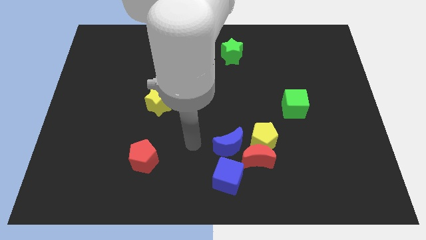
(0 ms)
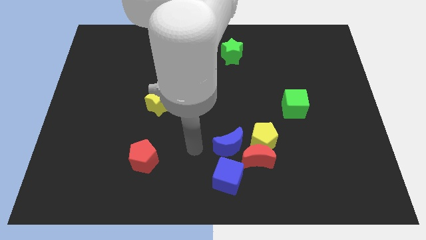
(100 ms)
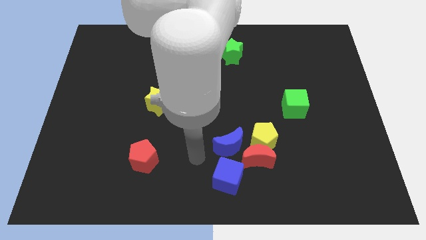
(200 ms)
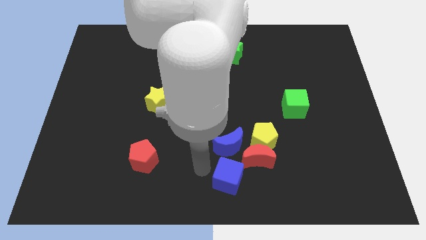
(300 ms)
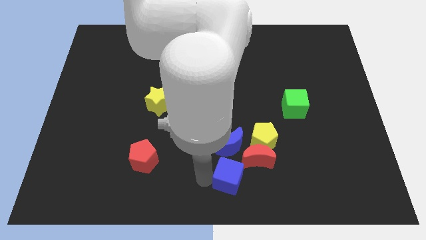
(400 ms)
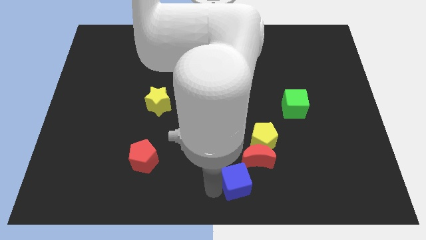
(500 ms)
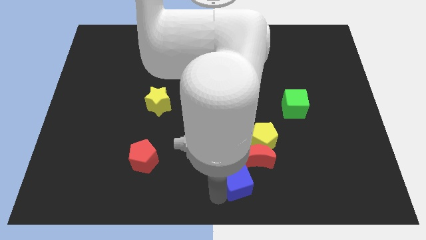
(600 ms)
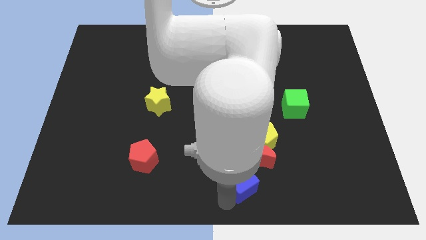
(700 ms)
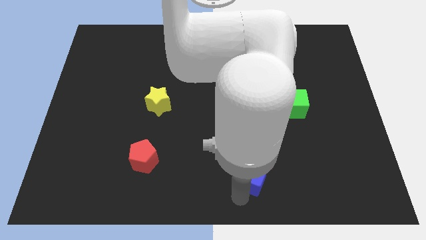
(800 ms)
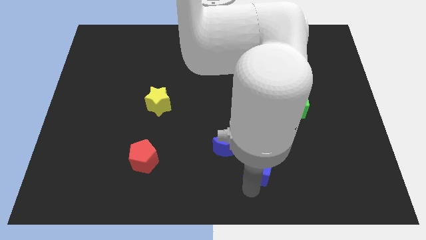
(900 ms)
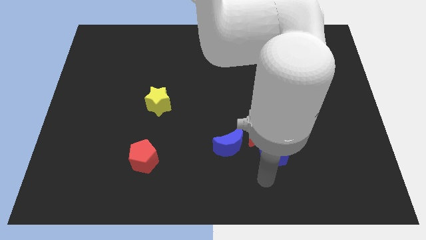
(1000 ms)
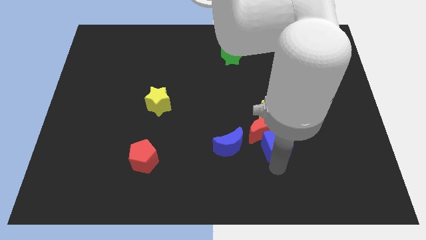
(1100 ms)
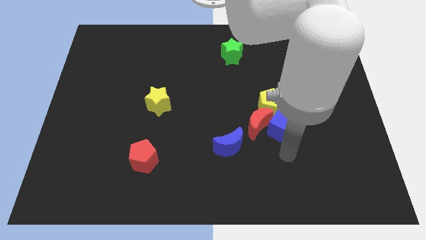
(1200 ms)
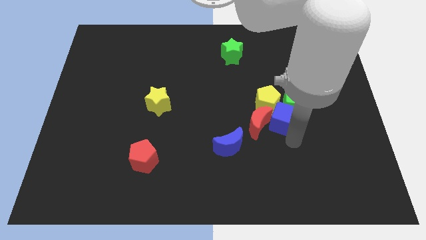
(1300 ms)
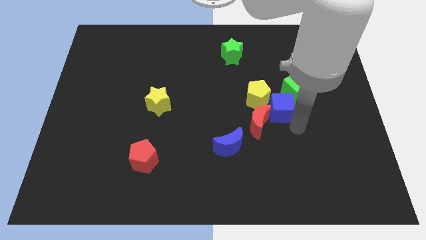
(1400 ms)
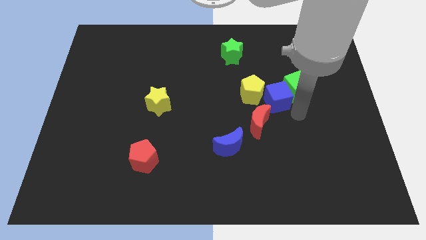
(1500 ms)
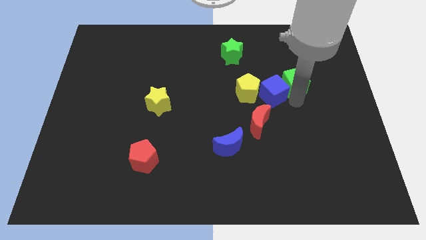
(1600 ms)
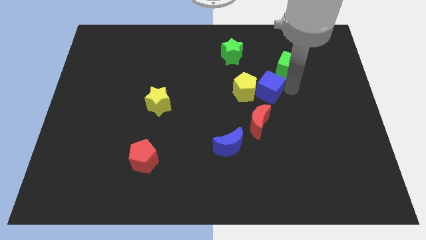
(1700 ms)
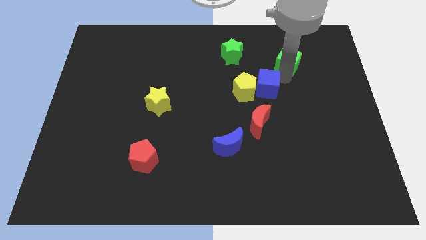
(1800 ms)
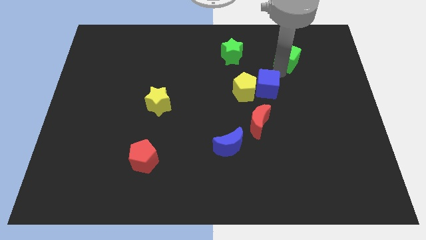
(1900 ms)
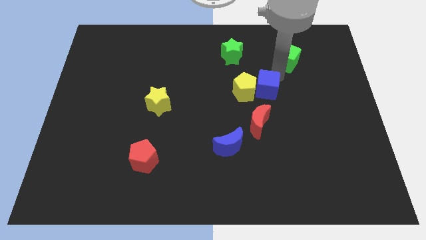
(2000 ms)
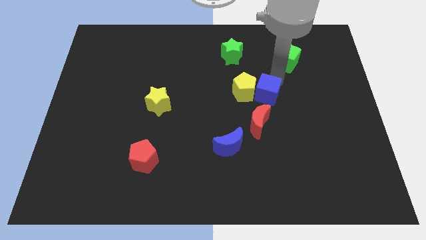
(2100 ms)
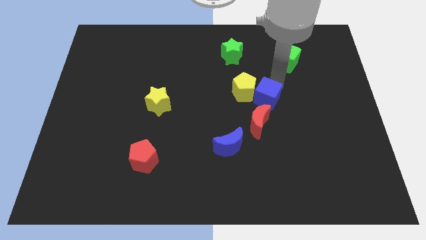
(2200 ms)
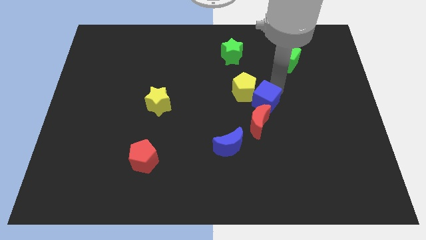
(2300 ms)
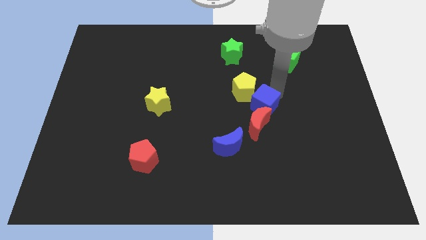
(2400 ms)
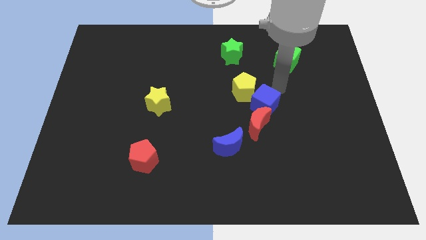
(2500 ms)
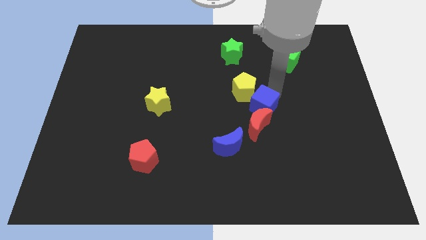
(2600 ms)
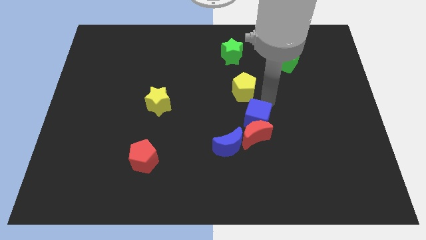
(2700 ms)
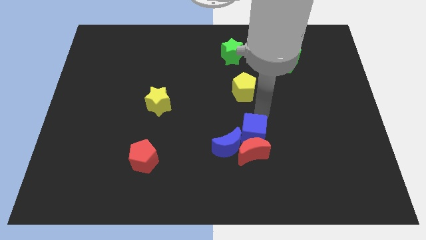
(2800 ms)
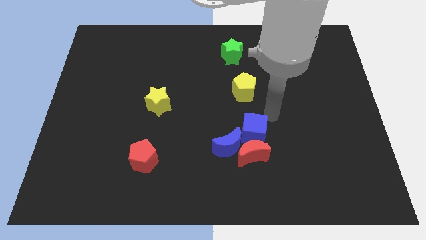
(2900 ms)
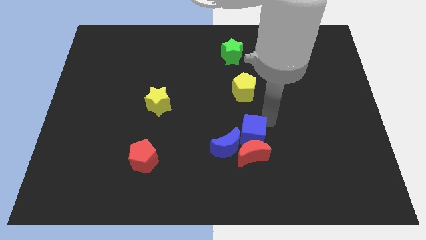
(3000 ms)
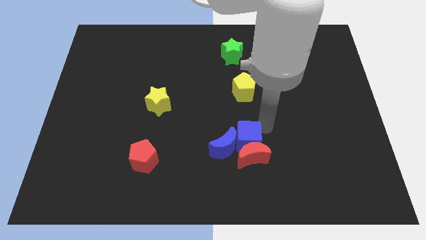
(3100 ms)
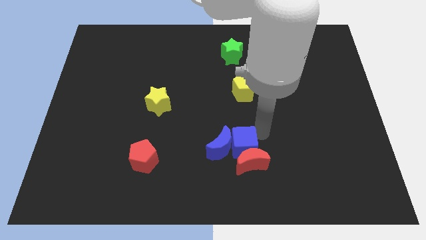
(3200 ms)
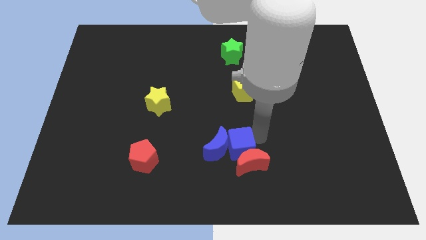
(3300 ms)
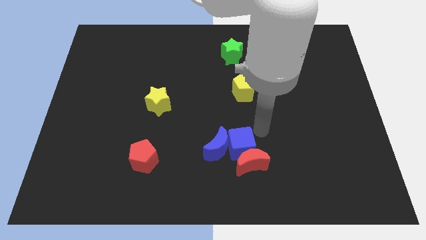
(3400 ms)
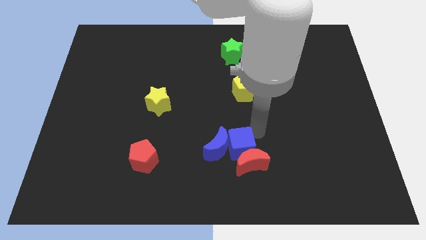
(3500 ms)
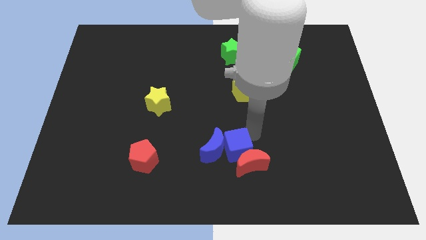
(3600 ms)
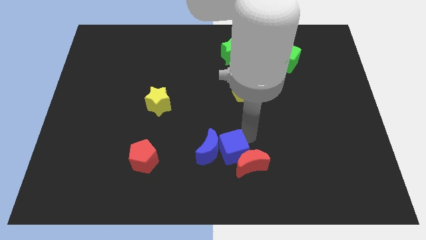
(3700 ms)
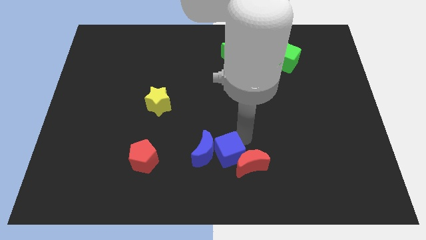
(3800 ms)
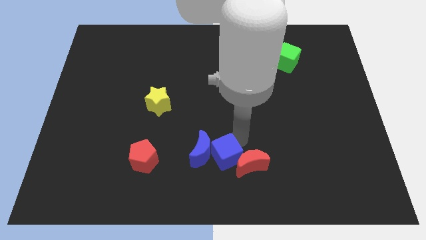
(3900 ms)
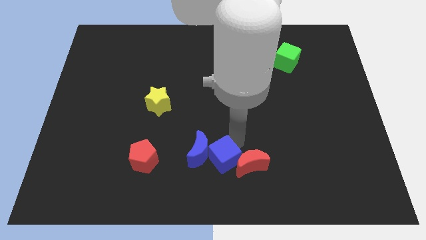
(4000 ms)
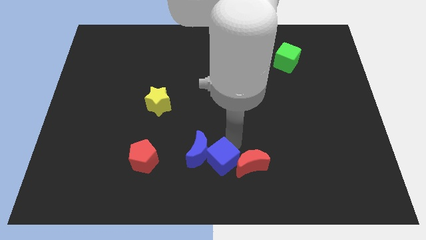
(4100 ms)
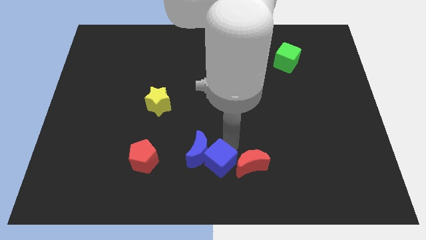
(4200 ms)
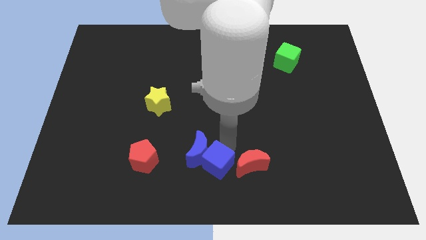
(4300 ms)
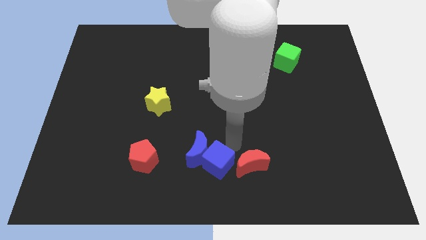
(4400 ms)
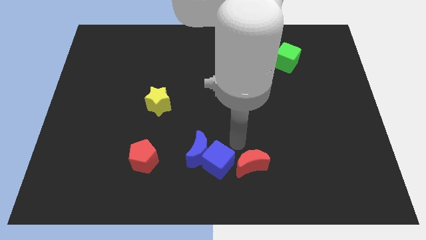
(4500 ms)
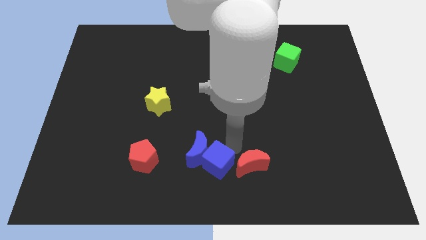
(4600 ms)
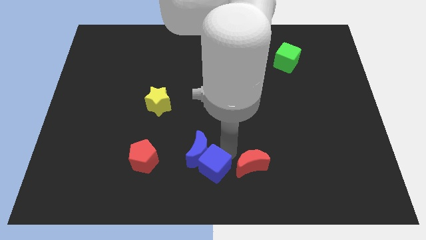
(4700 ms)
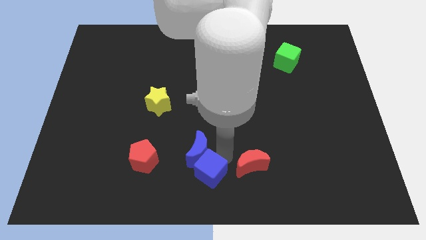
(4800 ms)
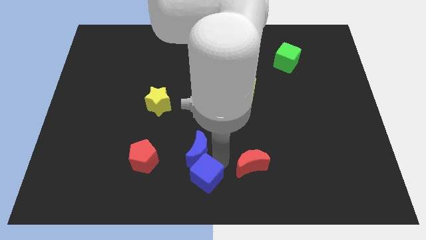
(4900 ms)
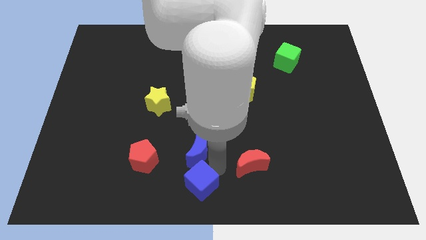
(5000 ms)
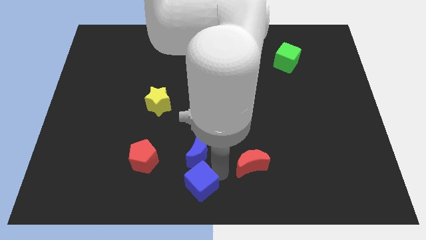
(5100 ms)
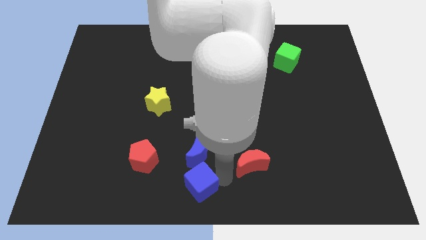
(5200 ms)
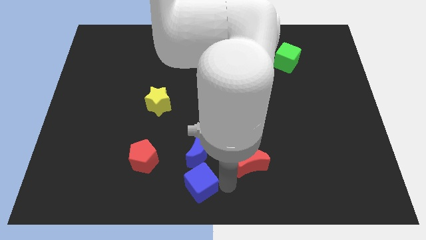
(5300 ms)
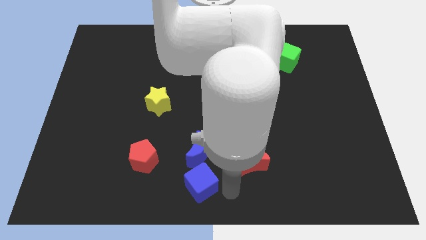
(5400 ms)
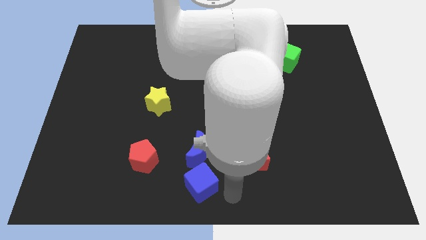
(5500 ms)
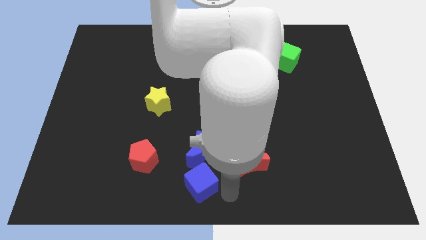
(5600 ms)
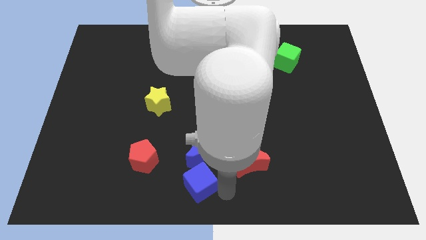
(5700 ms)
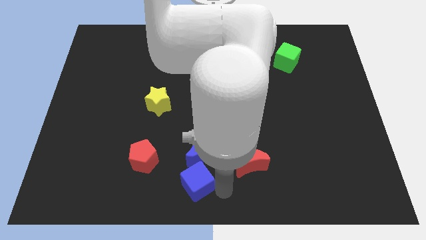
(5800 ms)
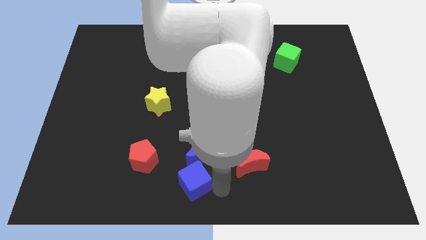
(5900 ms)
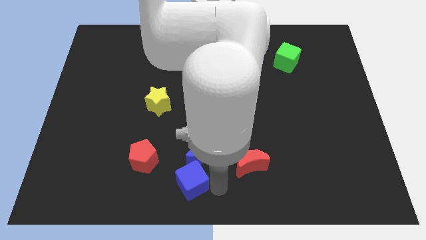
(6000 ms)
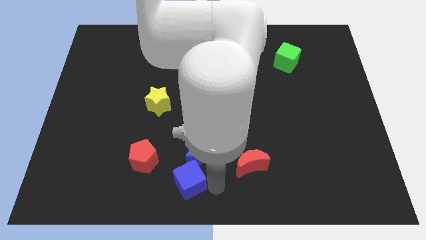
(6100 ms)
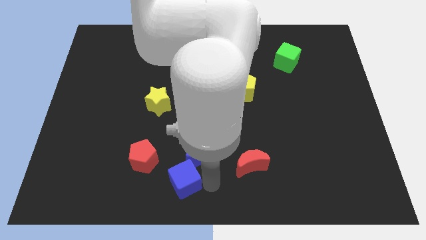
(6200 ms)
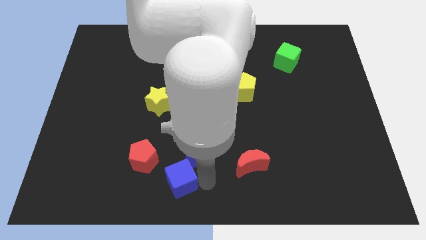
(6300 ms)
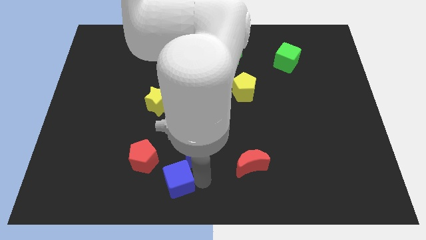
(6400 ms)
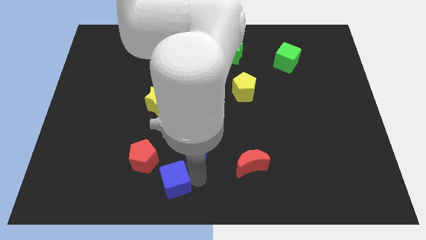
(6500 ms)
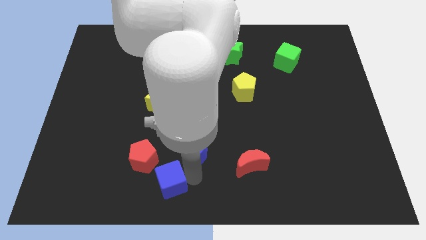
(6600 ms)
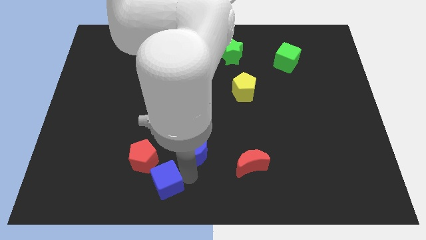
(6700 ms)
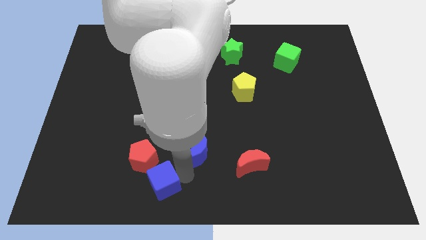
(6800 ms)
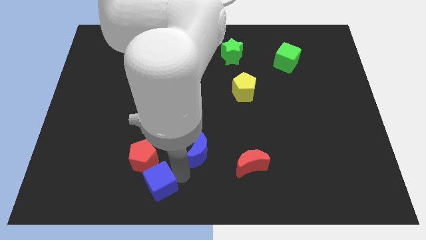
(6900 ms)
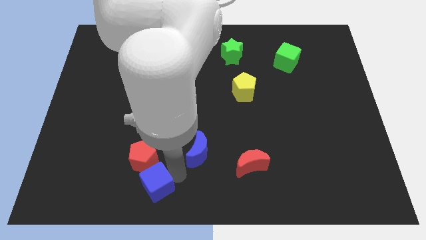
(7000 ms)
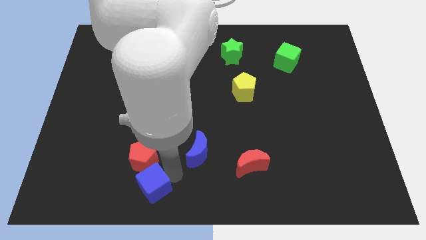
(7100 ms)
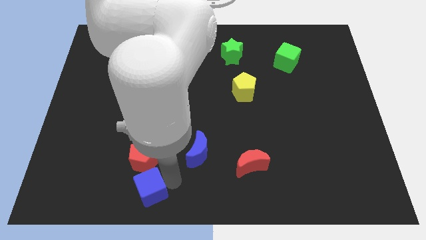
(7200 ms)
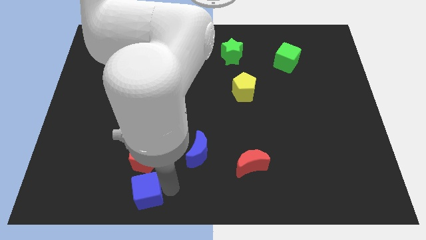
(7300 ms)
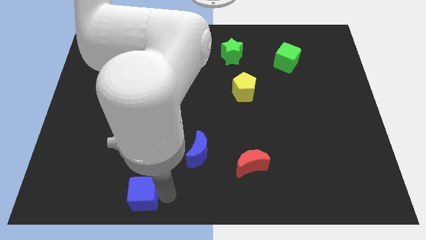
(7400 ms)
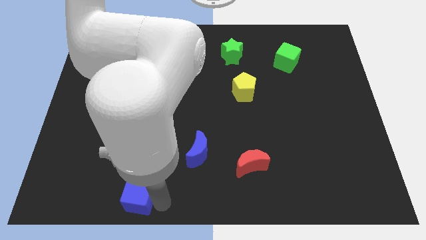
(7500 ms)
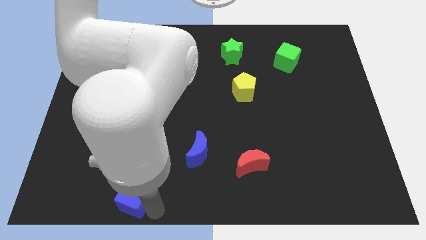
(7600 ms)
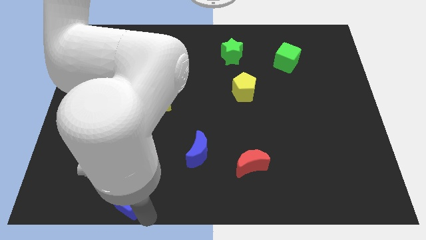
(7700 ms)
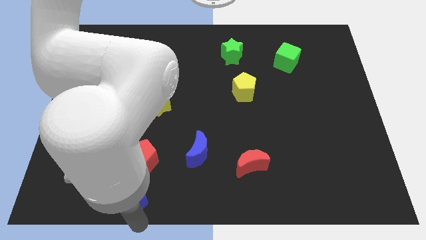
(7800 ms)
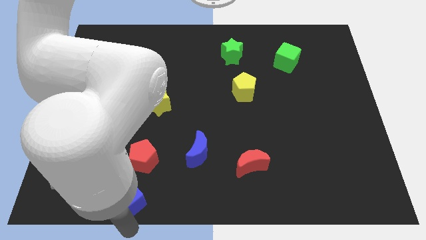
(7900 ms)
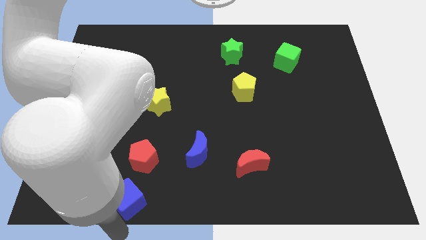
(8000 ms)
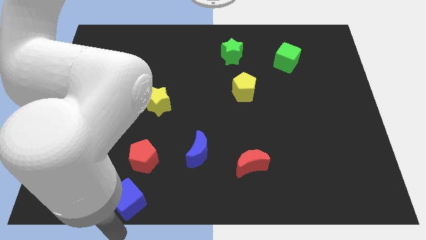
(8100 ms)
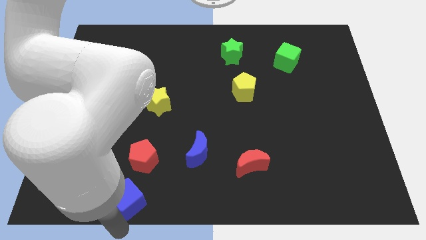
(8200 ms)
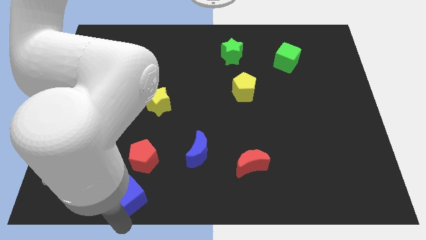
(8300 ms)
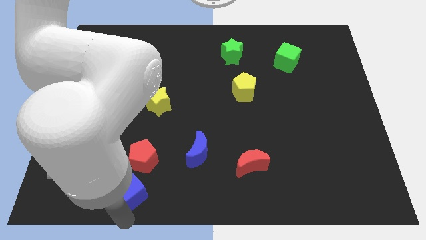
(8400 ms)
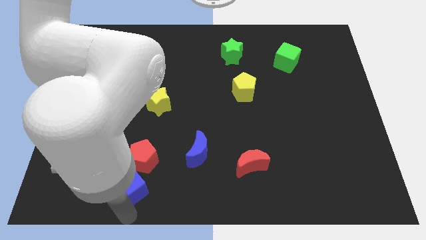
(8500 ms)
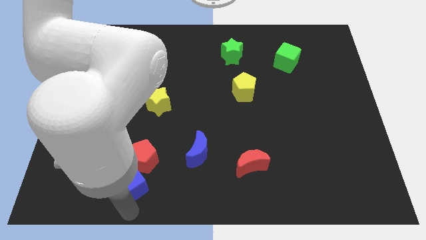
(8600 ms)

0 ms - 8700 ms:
slide the blue cube towards the red pentagon
